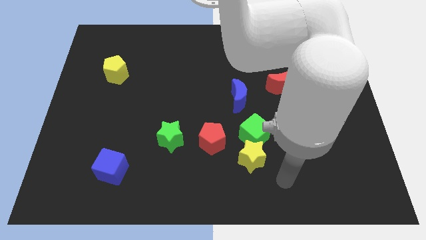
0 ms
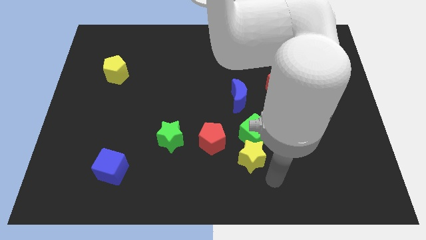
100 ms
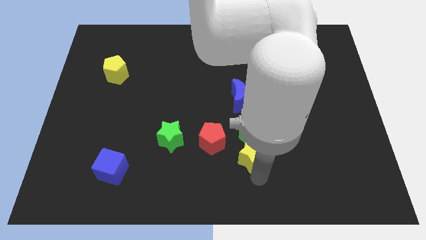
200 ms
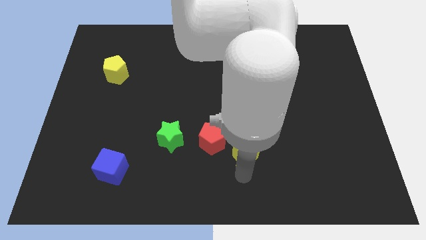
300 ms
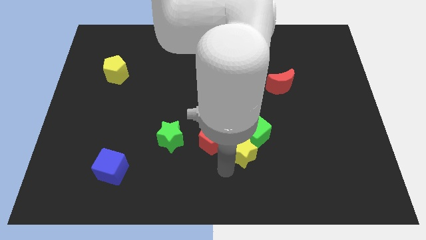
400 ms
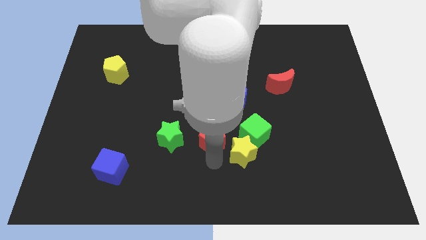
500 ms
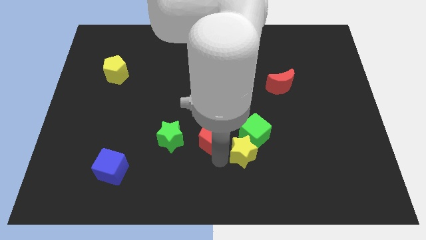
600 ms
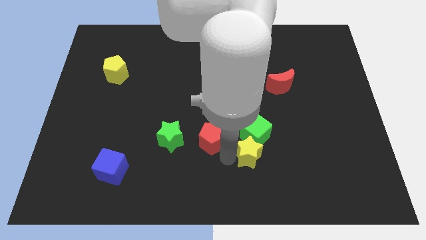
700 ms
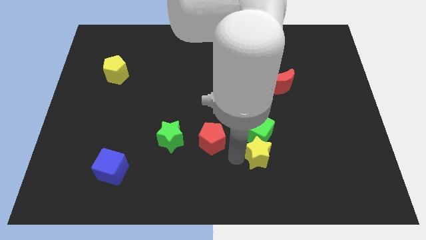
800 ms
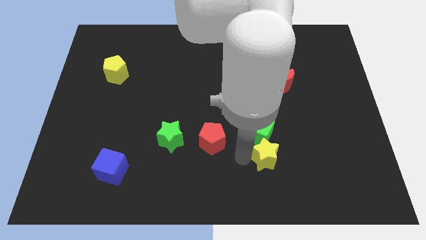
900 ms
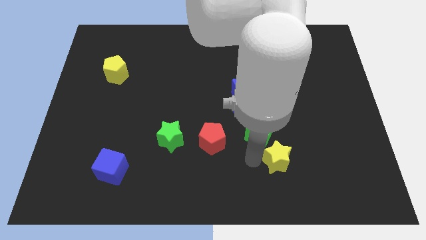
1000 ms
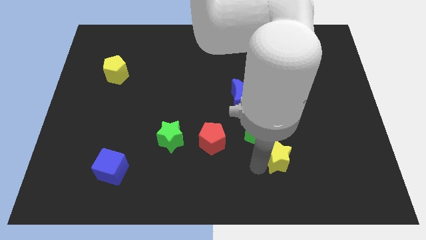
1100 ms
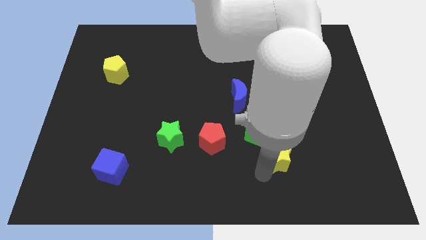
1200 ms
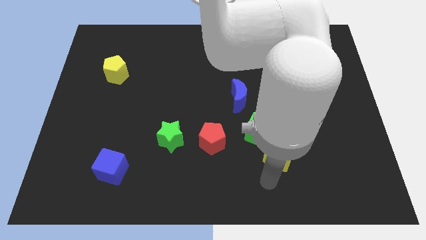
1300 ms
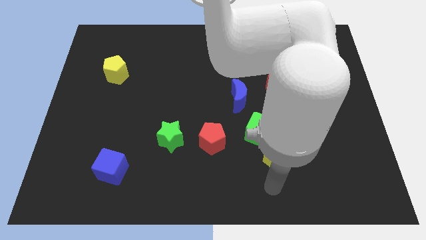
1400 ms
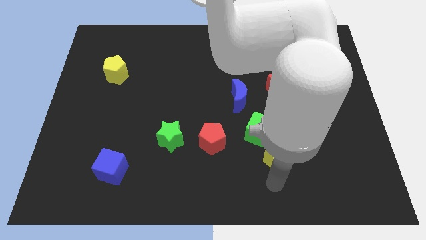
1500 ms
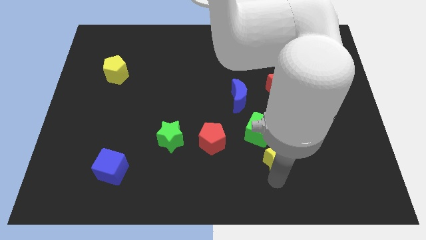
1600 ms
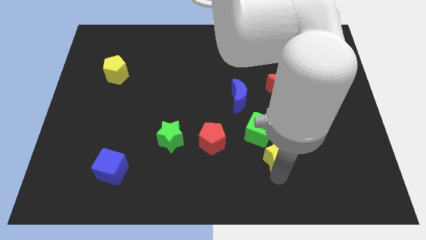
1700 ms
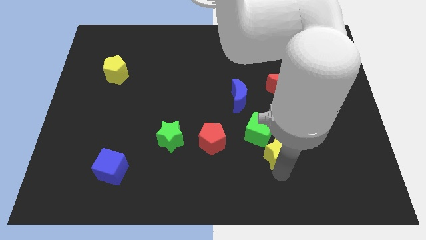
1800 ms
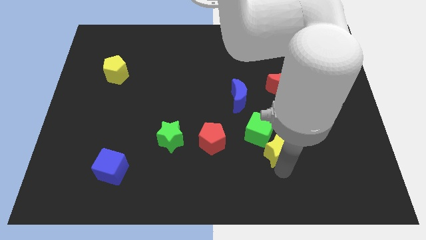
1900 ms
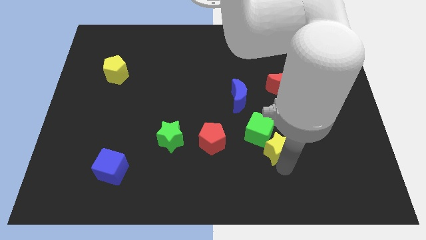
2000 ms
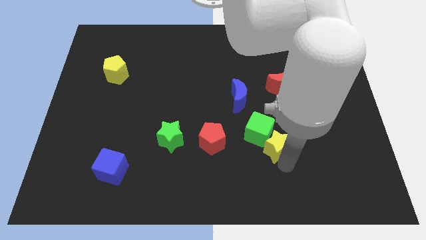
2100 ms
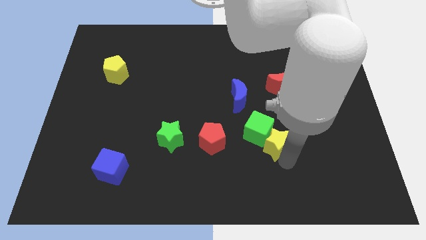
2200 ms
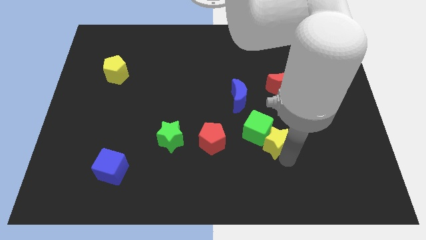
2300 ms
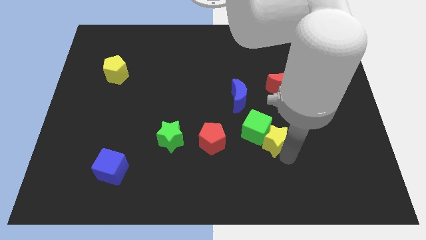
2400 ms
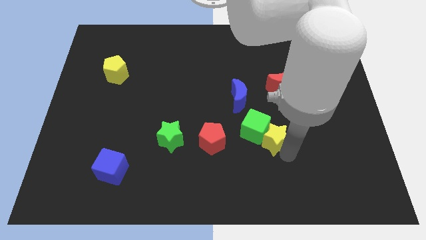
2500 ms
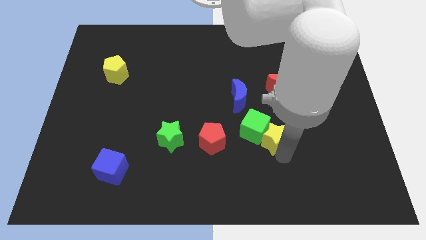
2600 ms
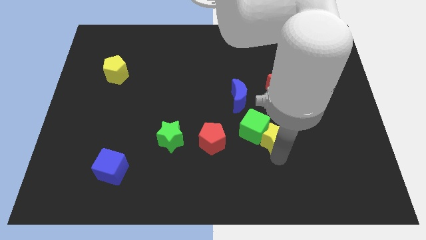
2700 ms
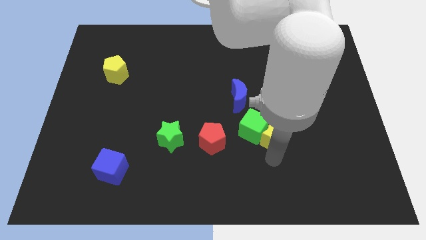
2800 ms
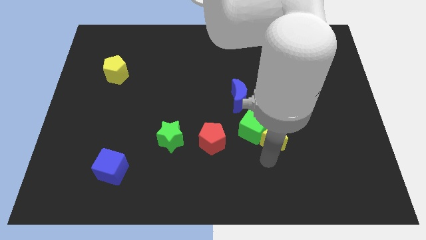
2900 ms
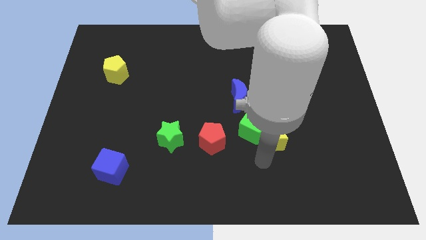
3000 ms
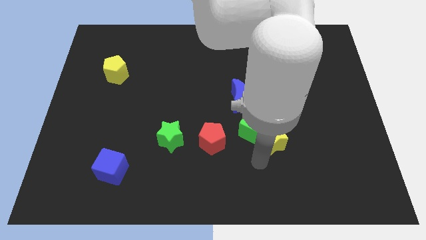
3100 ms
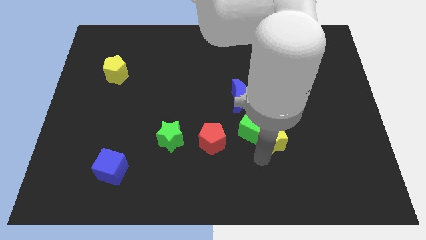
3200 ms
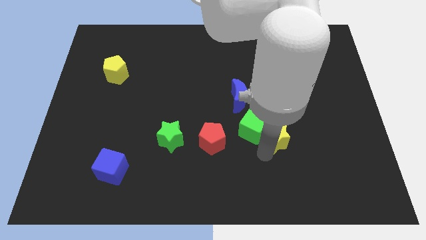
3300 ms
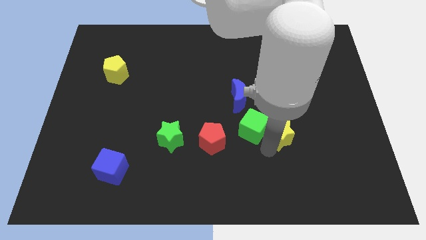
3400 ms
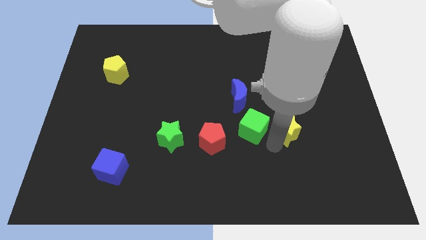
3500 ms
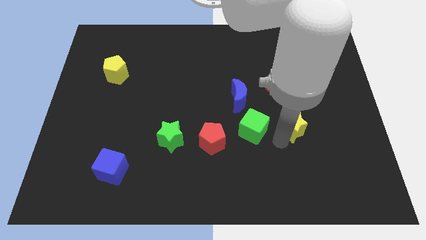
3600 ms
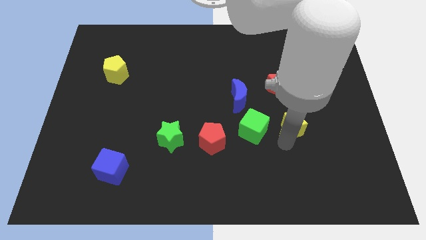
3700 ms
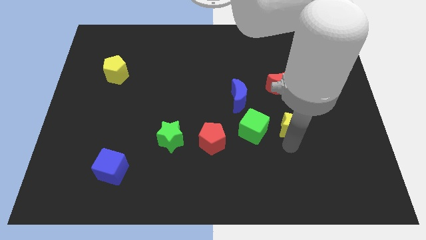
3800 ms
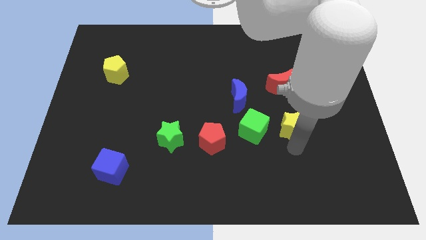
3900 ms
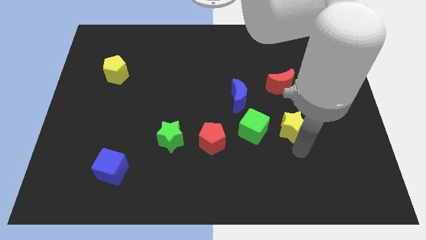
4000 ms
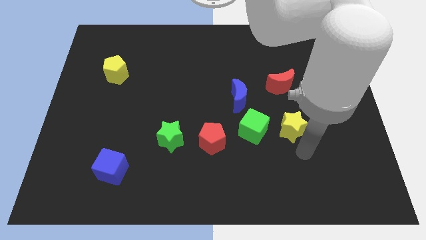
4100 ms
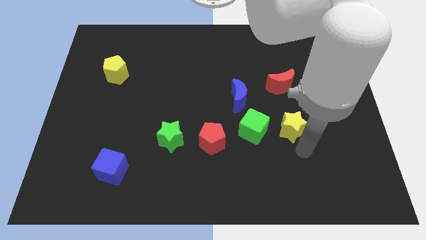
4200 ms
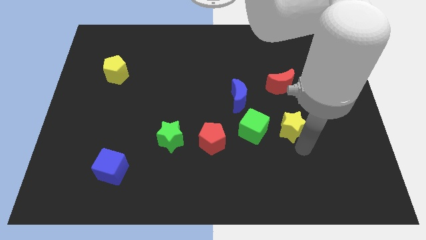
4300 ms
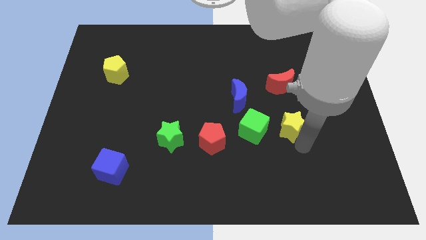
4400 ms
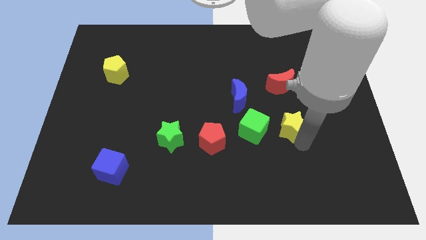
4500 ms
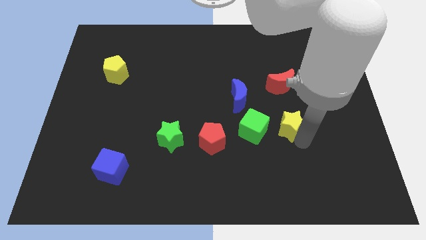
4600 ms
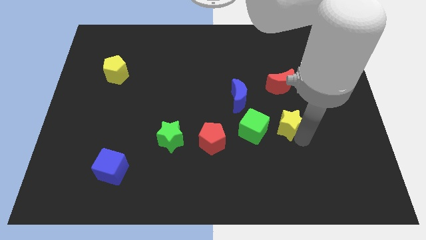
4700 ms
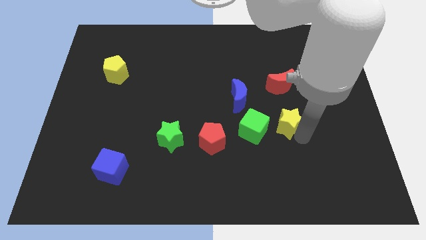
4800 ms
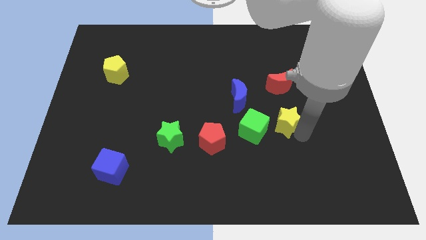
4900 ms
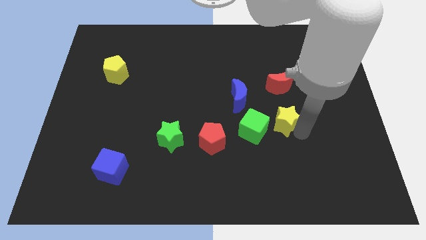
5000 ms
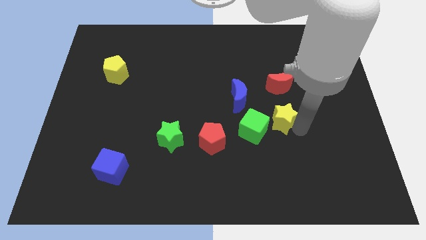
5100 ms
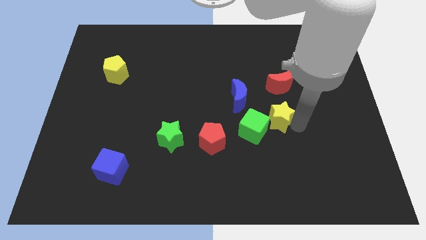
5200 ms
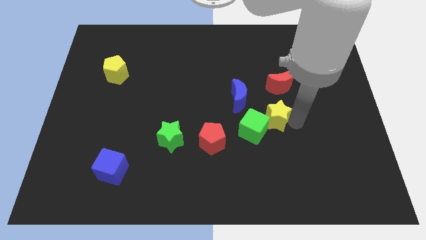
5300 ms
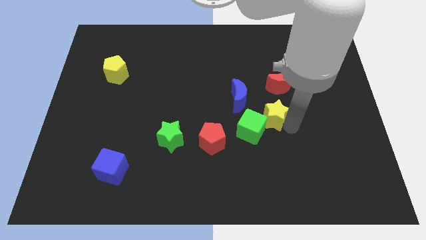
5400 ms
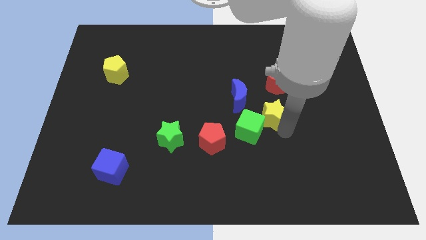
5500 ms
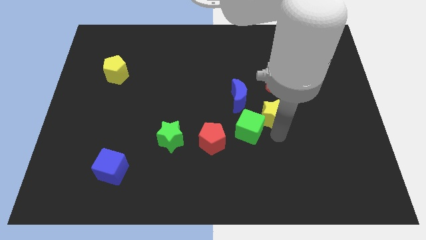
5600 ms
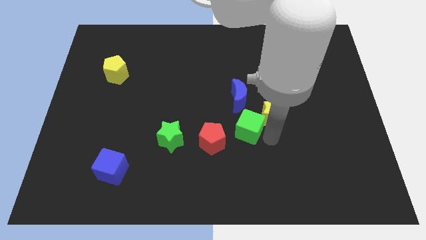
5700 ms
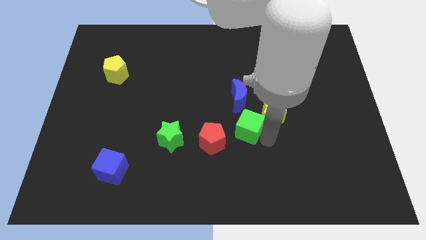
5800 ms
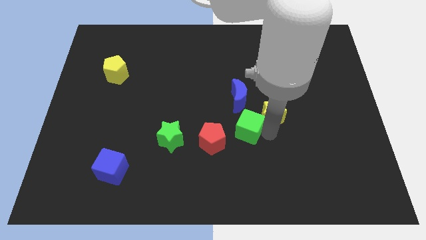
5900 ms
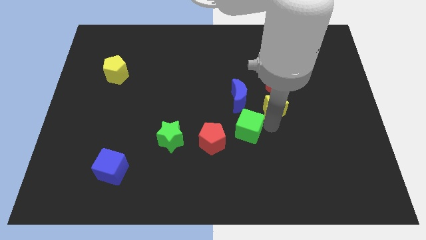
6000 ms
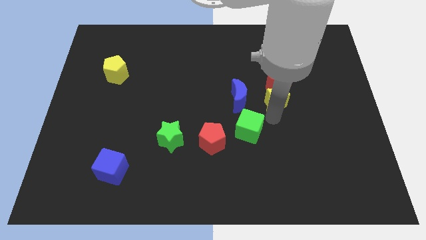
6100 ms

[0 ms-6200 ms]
slide the yellow star to the red moon

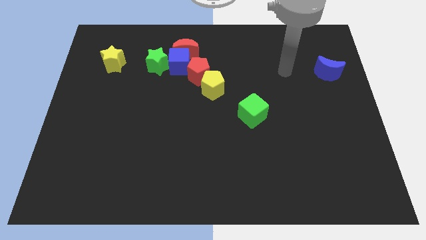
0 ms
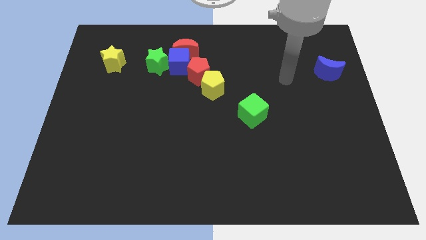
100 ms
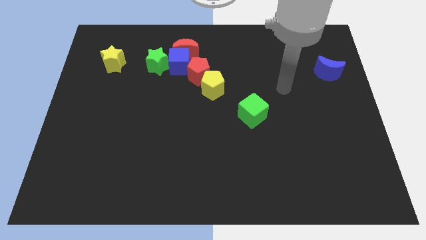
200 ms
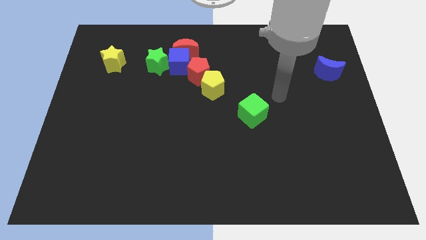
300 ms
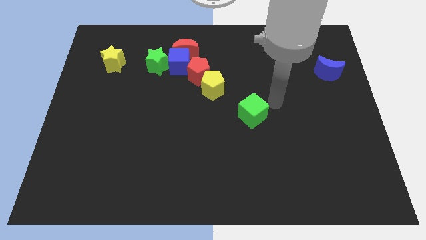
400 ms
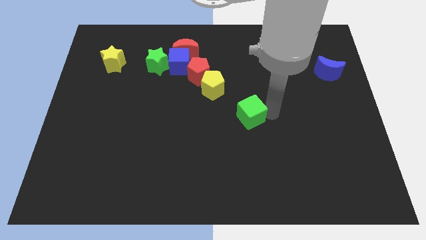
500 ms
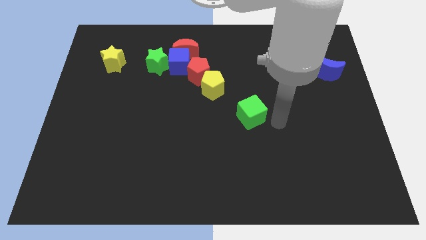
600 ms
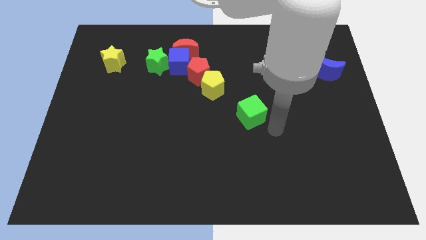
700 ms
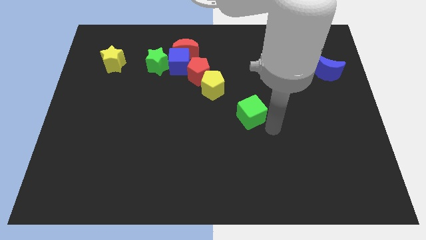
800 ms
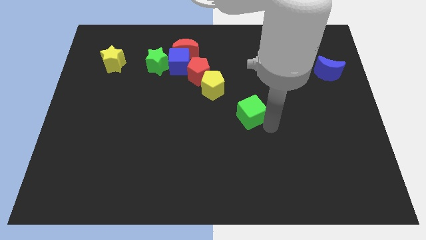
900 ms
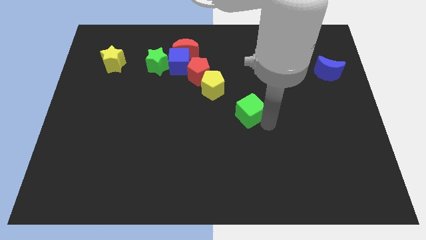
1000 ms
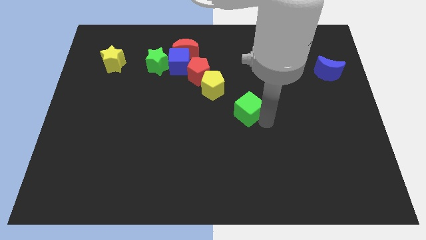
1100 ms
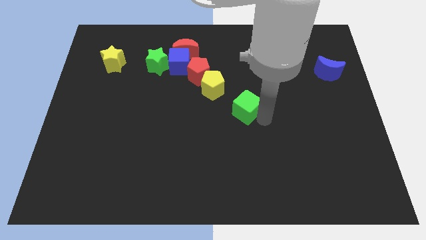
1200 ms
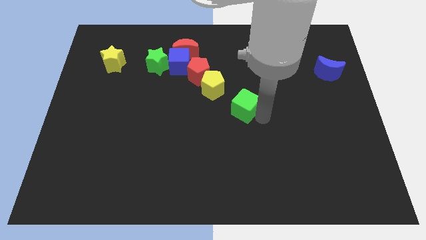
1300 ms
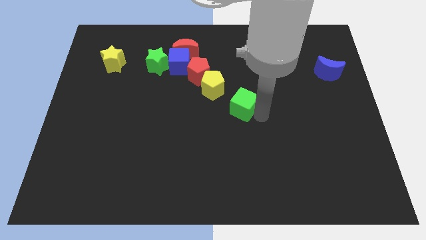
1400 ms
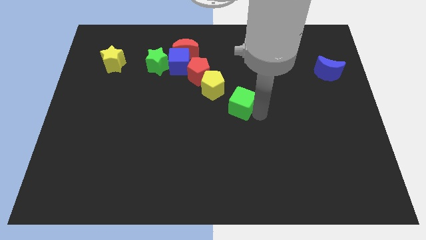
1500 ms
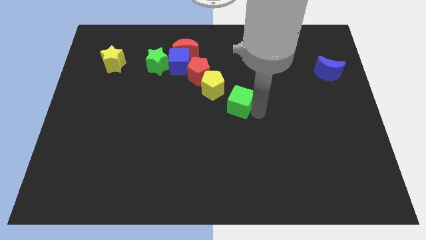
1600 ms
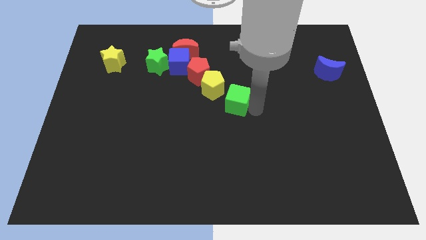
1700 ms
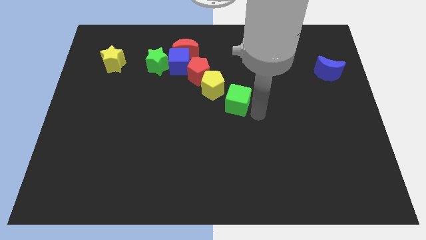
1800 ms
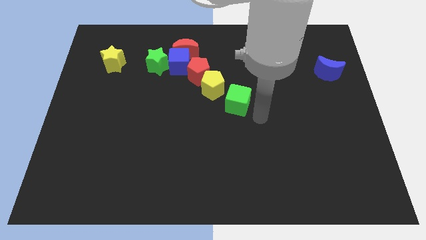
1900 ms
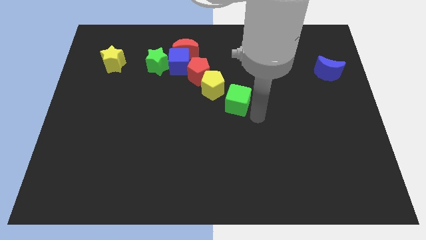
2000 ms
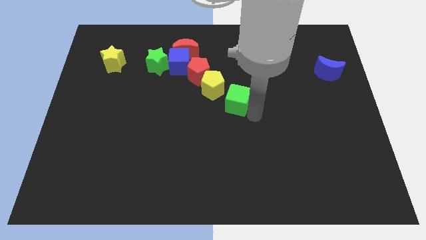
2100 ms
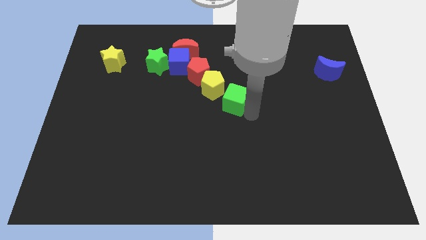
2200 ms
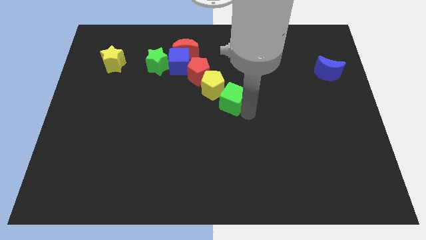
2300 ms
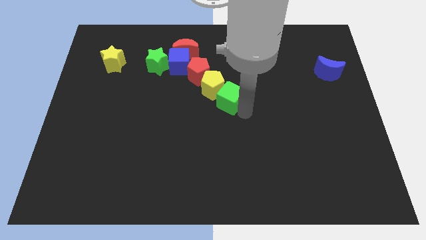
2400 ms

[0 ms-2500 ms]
slide the green cube close to the yellow pentagon
